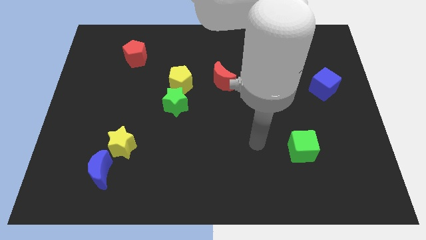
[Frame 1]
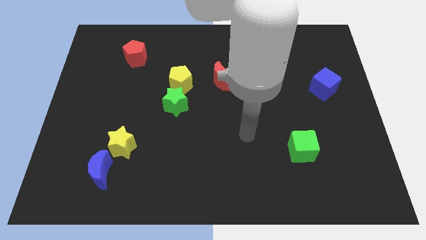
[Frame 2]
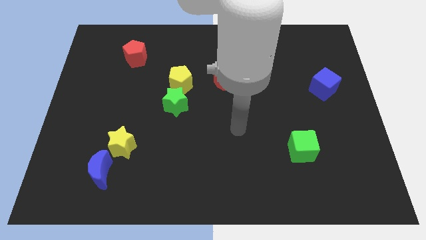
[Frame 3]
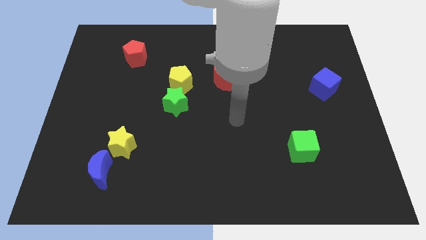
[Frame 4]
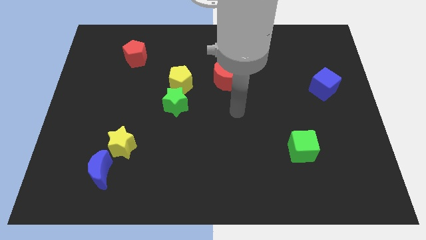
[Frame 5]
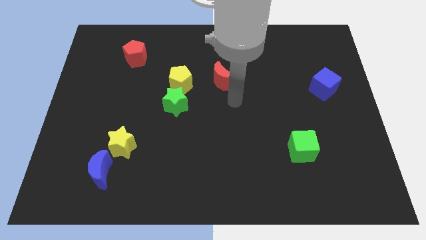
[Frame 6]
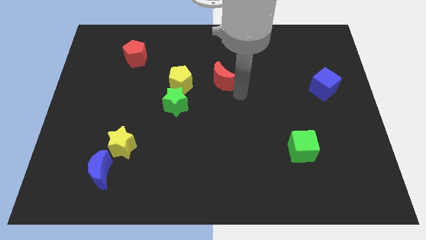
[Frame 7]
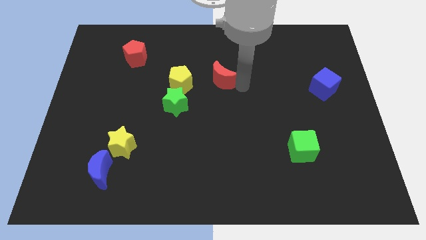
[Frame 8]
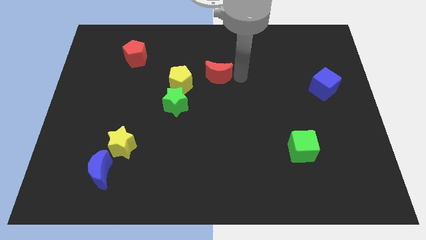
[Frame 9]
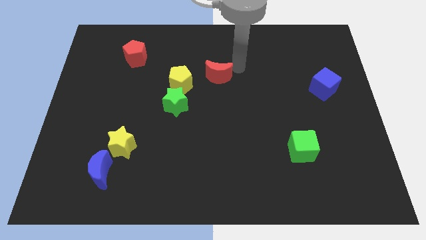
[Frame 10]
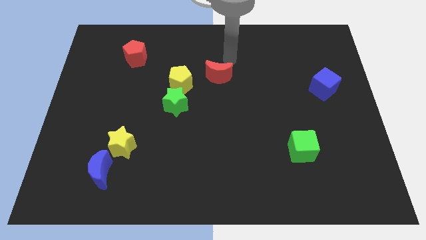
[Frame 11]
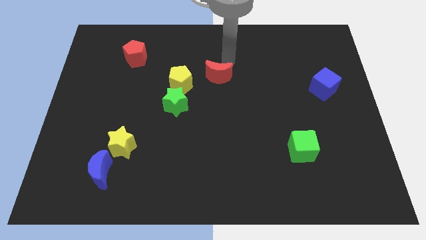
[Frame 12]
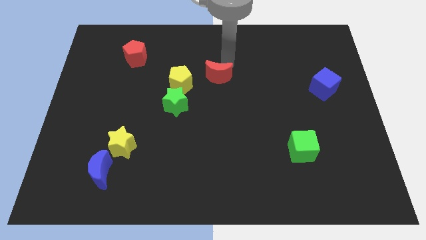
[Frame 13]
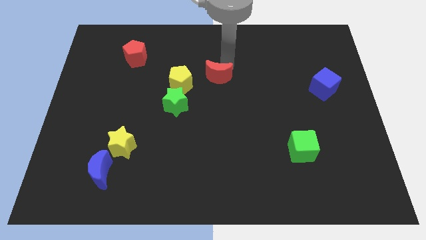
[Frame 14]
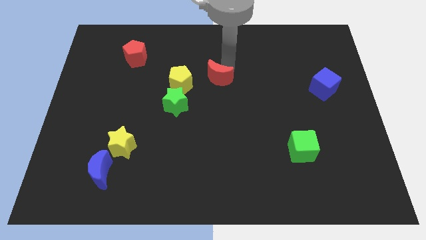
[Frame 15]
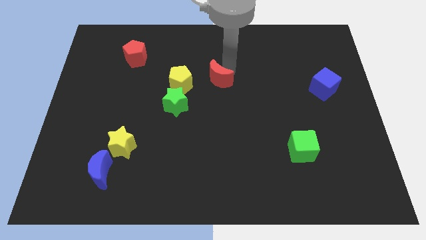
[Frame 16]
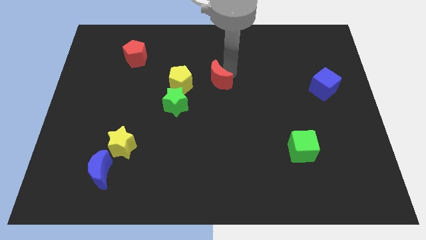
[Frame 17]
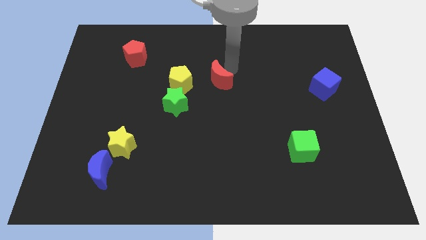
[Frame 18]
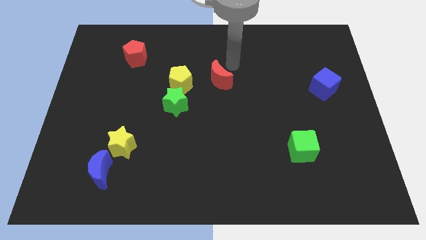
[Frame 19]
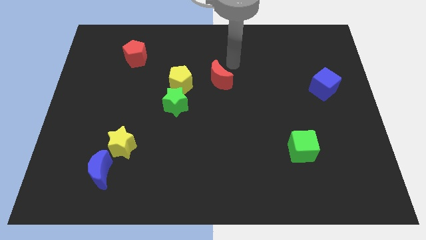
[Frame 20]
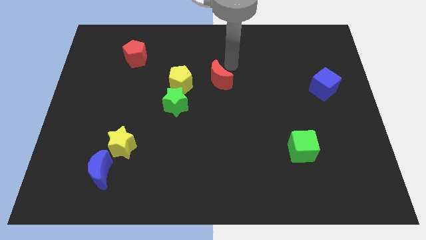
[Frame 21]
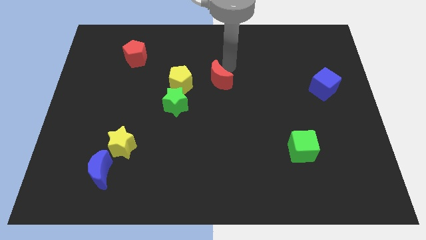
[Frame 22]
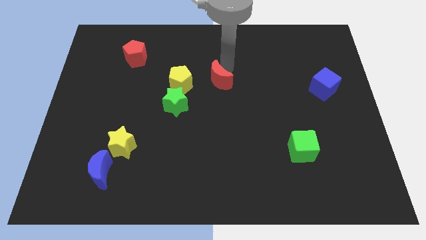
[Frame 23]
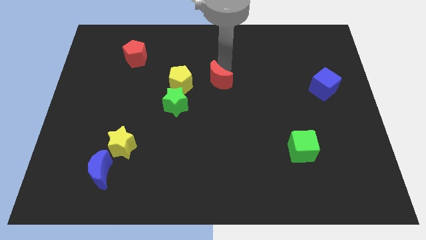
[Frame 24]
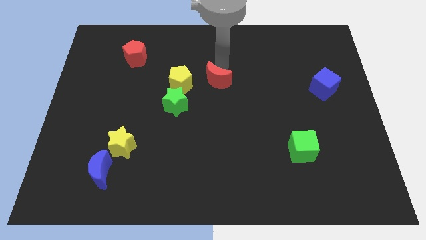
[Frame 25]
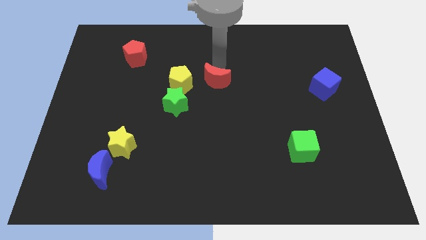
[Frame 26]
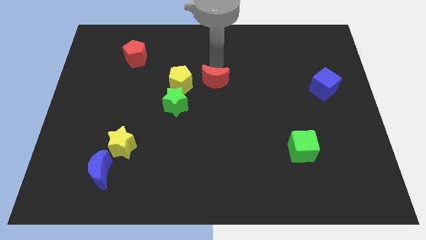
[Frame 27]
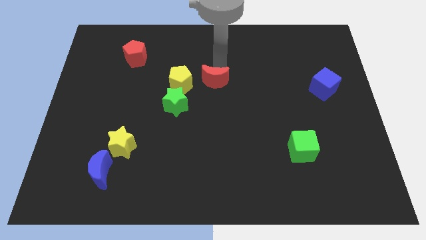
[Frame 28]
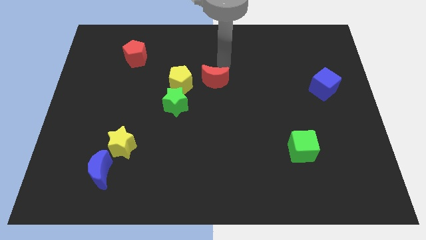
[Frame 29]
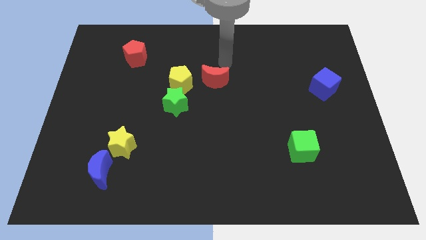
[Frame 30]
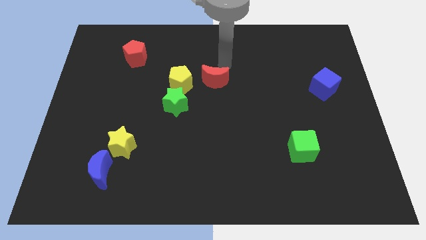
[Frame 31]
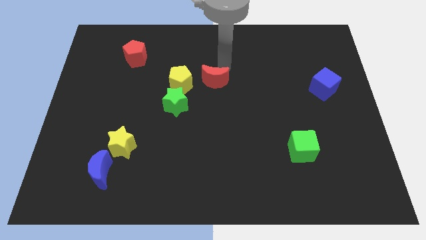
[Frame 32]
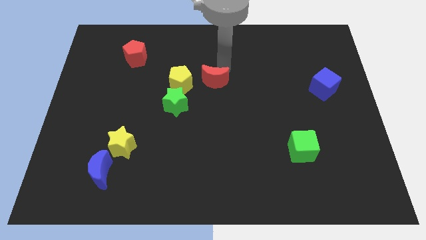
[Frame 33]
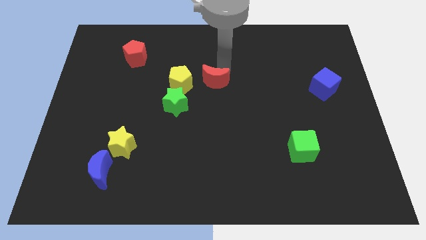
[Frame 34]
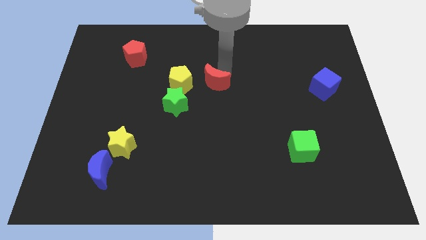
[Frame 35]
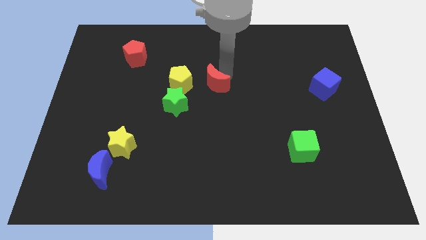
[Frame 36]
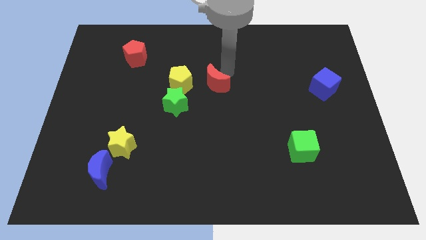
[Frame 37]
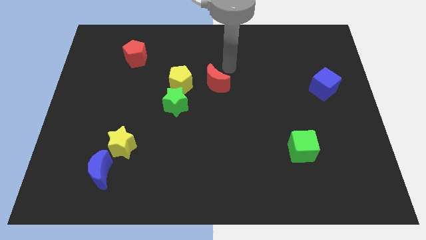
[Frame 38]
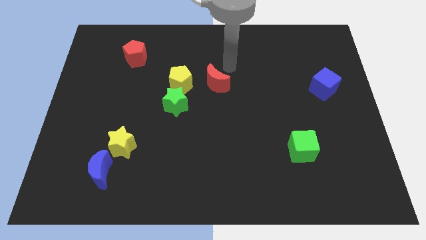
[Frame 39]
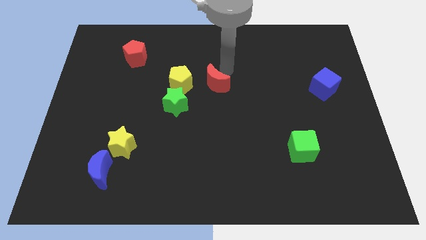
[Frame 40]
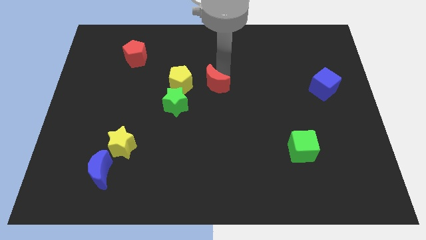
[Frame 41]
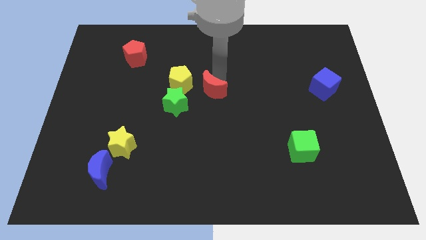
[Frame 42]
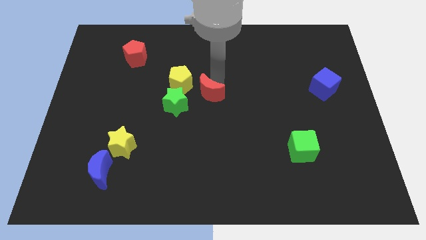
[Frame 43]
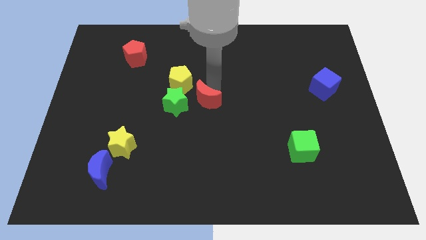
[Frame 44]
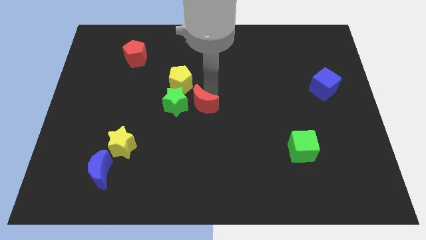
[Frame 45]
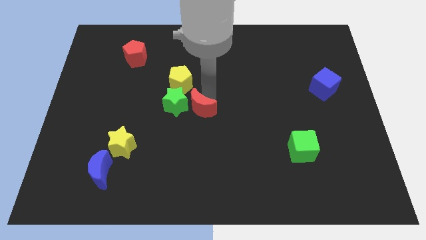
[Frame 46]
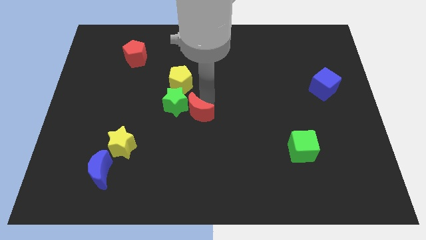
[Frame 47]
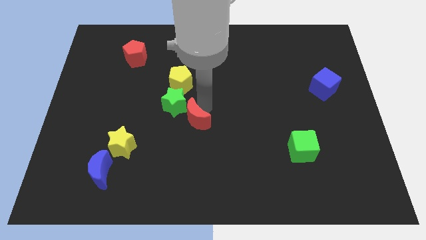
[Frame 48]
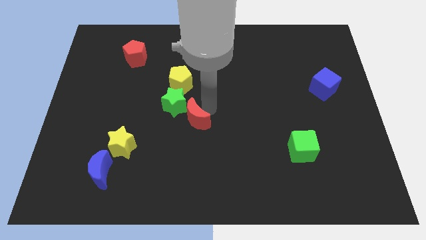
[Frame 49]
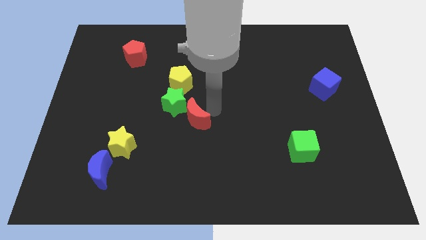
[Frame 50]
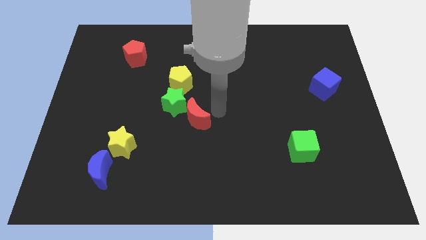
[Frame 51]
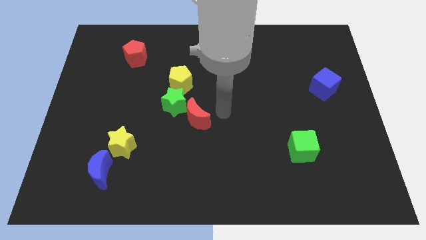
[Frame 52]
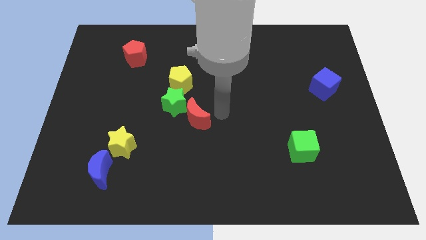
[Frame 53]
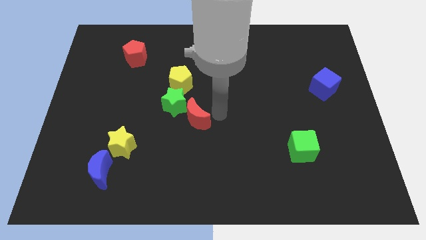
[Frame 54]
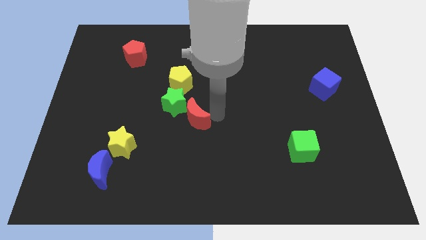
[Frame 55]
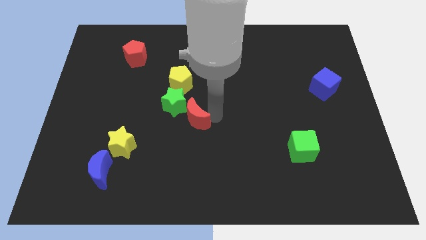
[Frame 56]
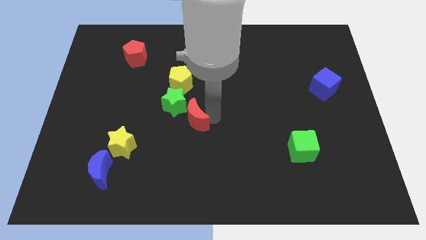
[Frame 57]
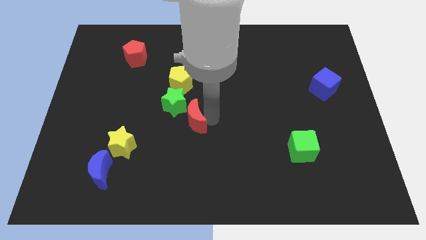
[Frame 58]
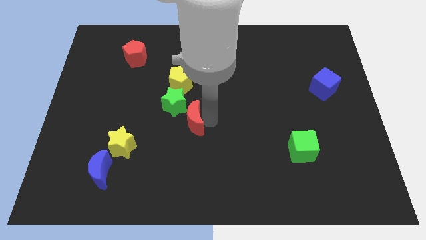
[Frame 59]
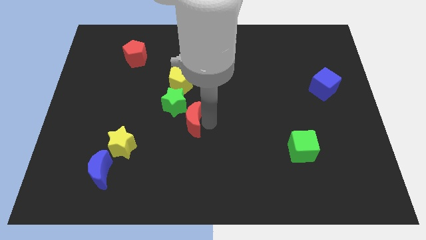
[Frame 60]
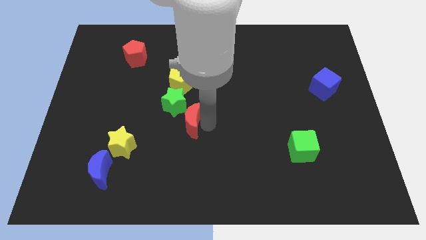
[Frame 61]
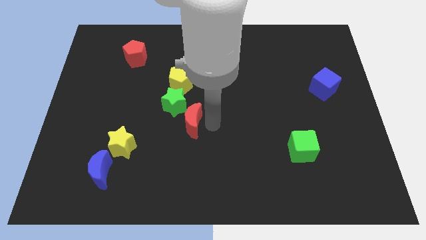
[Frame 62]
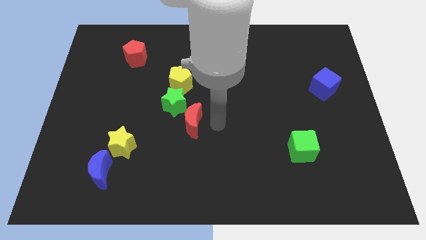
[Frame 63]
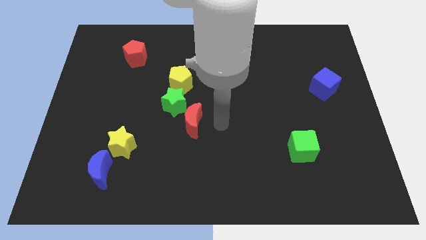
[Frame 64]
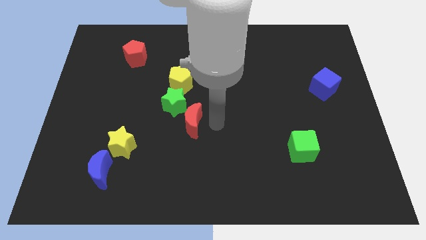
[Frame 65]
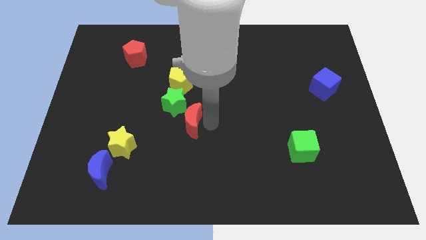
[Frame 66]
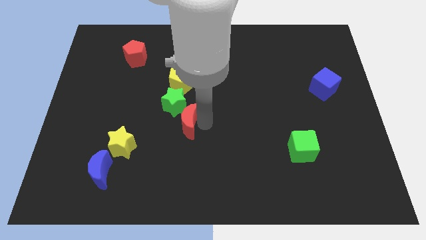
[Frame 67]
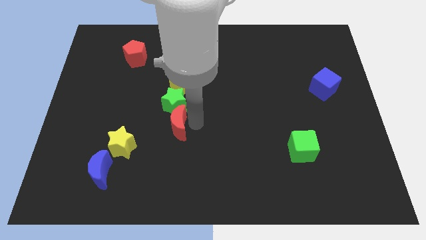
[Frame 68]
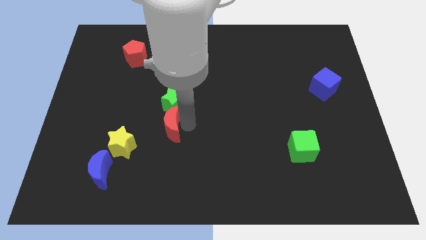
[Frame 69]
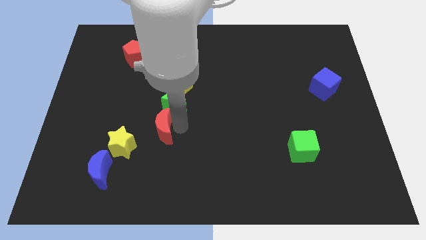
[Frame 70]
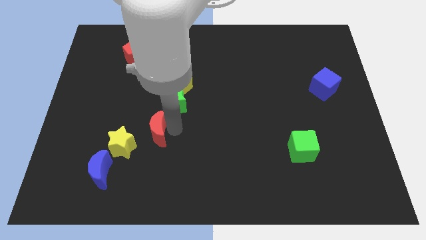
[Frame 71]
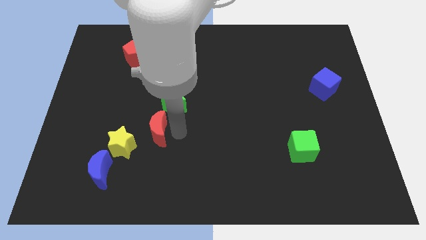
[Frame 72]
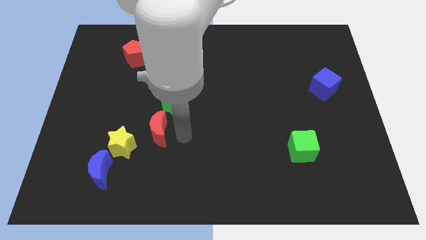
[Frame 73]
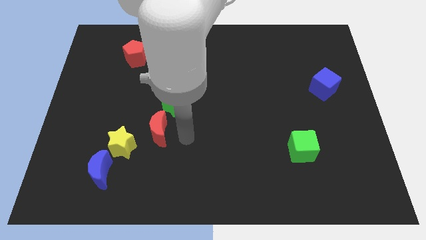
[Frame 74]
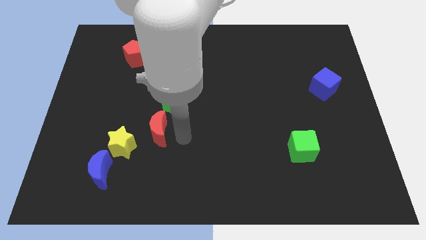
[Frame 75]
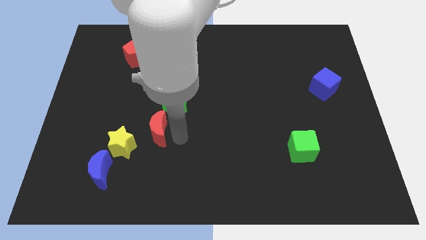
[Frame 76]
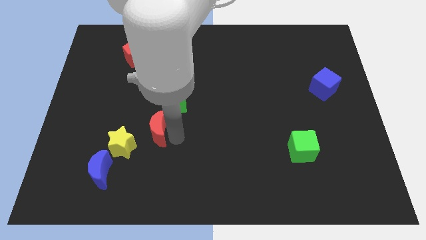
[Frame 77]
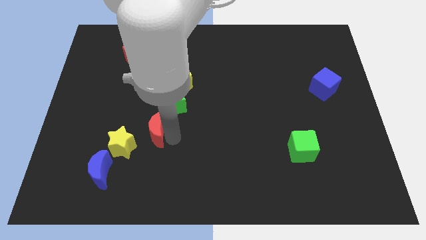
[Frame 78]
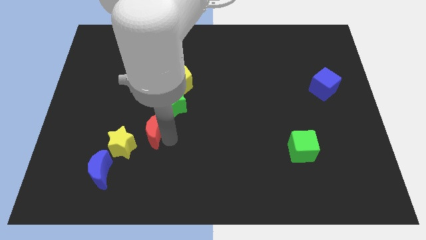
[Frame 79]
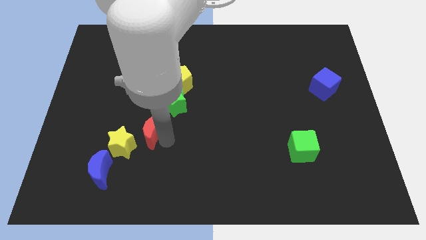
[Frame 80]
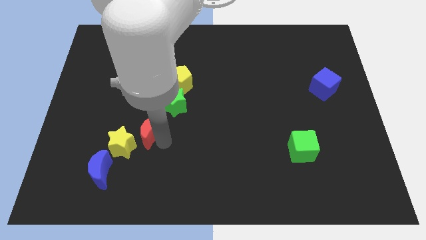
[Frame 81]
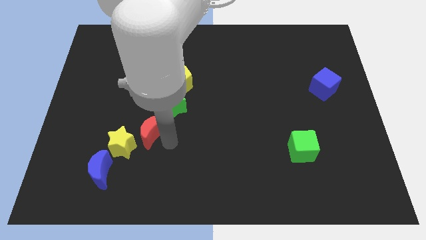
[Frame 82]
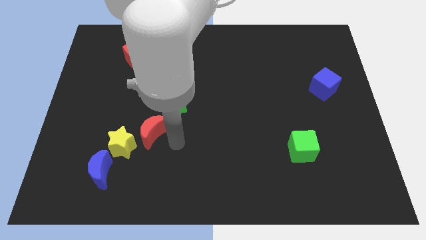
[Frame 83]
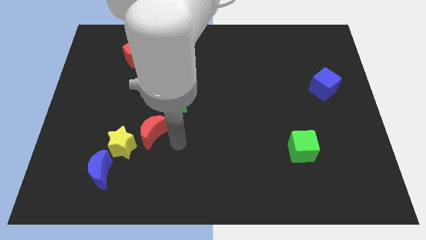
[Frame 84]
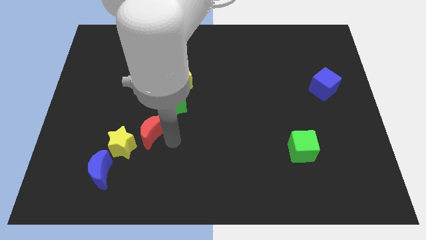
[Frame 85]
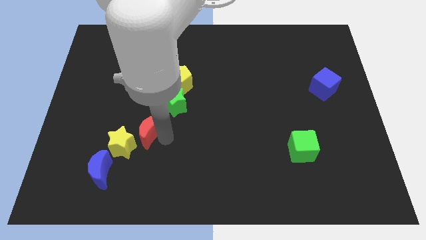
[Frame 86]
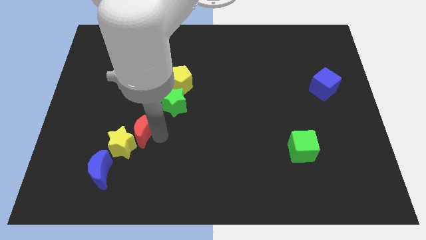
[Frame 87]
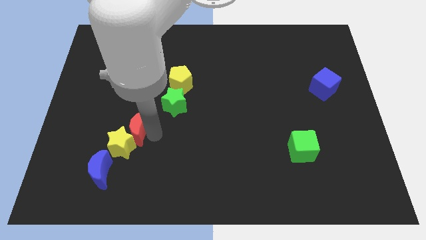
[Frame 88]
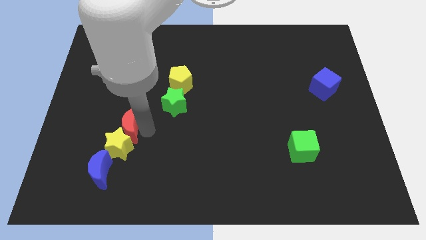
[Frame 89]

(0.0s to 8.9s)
move the red moon to the top left of the yellow star
